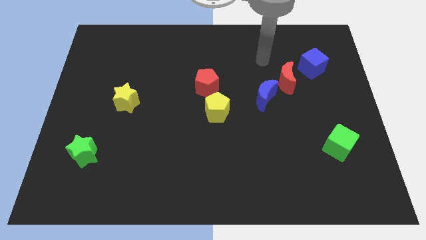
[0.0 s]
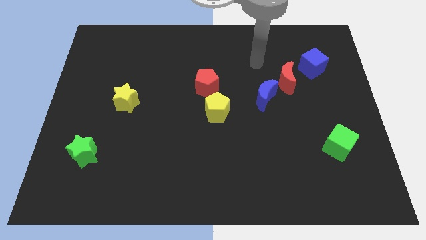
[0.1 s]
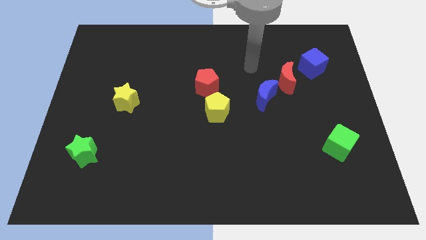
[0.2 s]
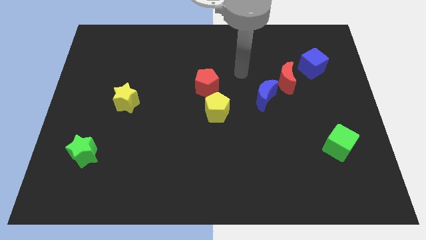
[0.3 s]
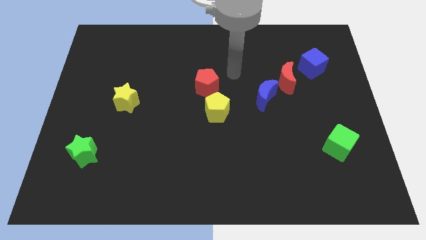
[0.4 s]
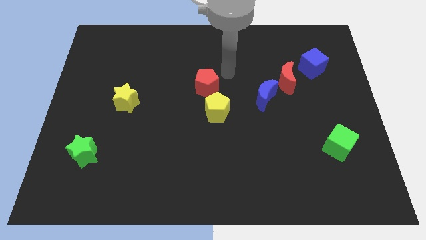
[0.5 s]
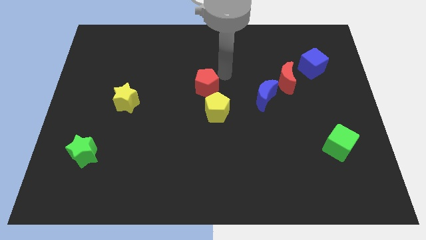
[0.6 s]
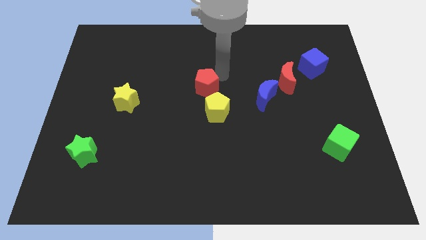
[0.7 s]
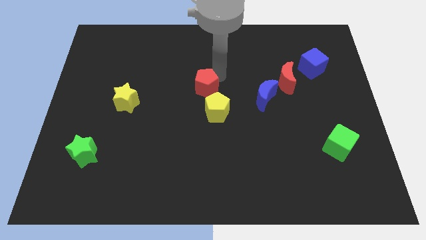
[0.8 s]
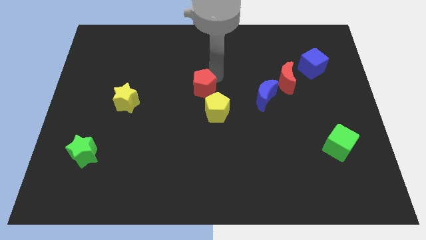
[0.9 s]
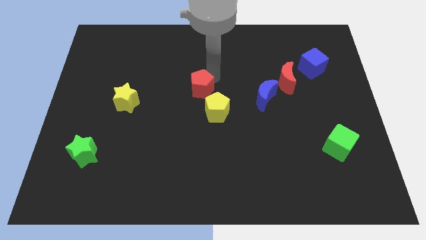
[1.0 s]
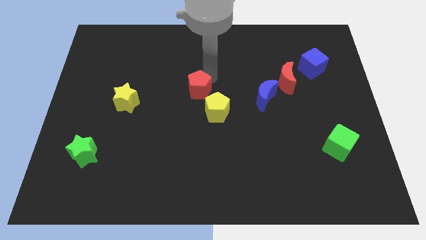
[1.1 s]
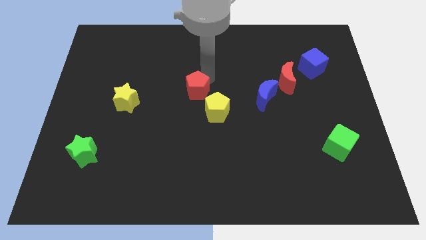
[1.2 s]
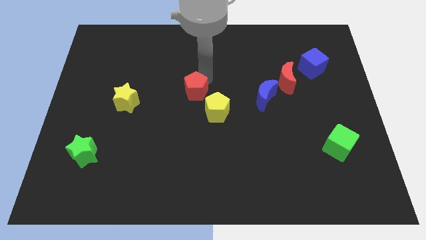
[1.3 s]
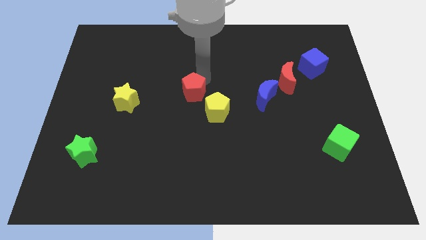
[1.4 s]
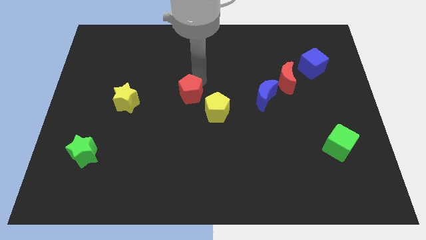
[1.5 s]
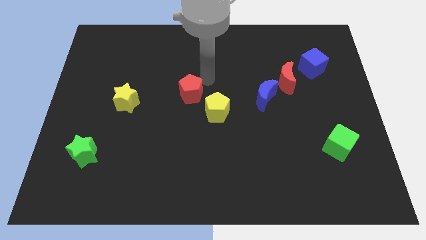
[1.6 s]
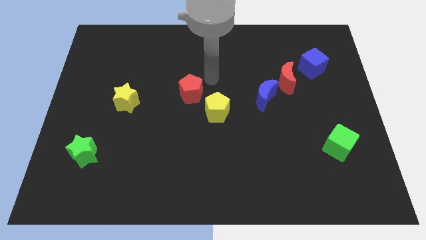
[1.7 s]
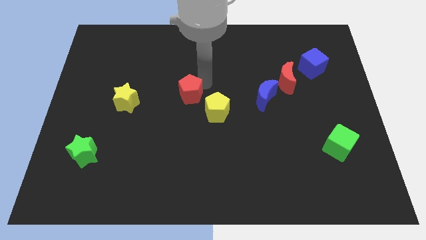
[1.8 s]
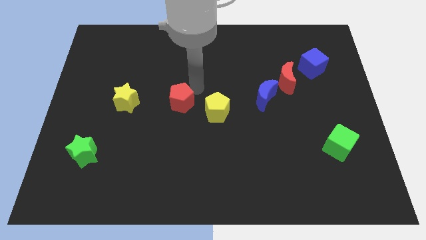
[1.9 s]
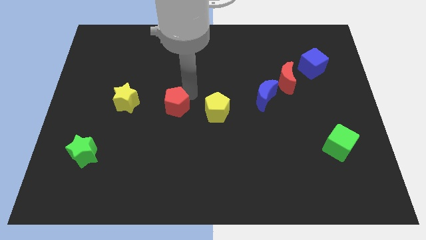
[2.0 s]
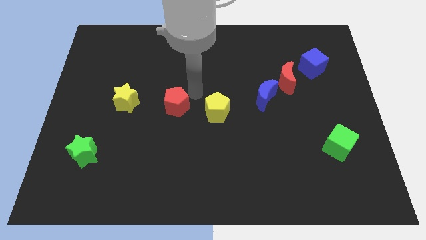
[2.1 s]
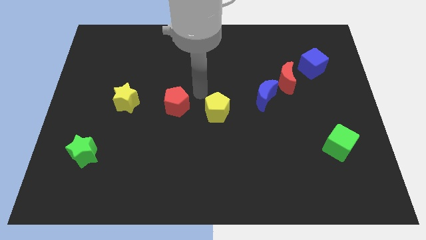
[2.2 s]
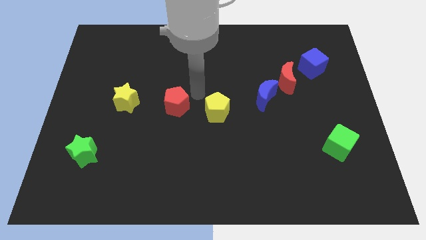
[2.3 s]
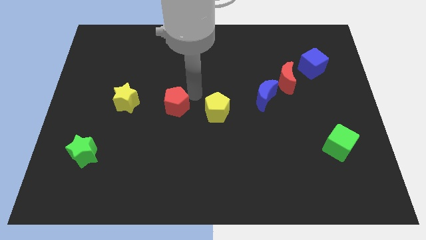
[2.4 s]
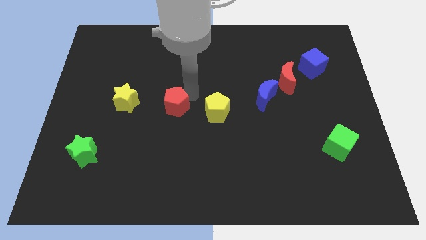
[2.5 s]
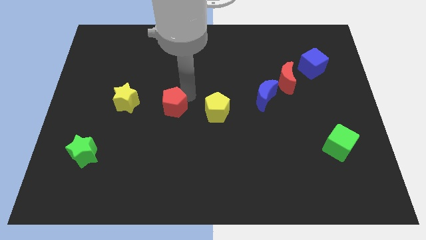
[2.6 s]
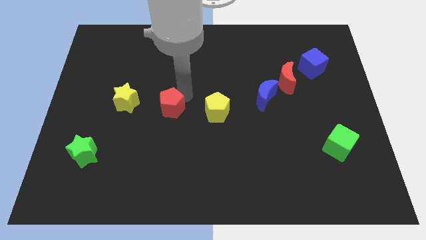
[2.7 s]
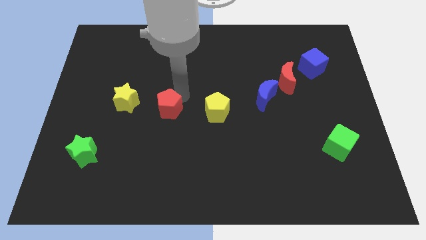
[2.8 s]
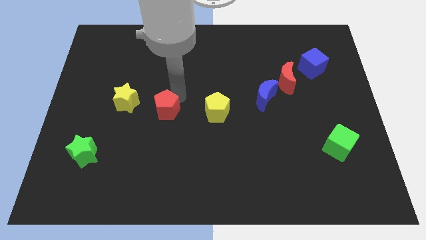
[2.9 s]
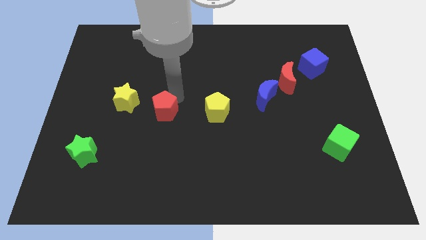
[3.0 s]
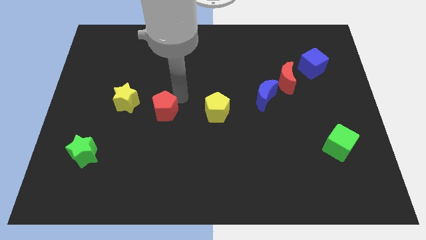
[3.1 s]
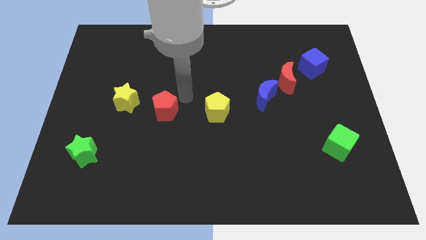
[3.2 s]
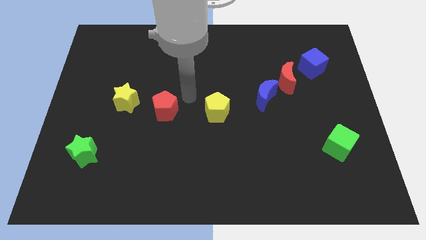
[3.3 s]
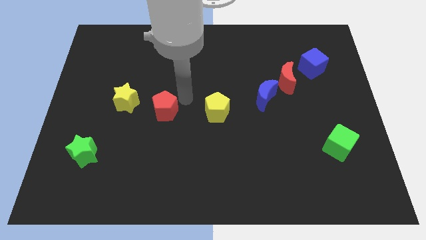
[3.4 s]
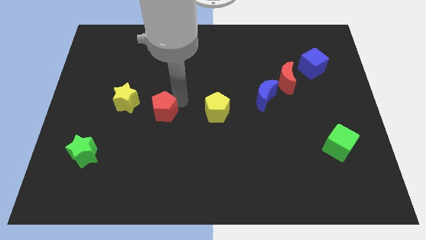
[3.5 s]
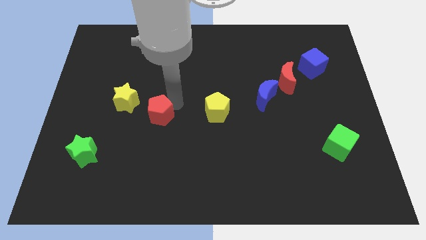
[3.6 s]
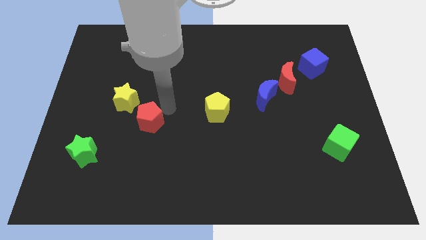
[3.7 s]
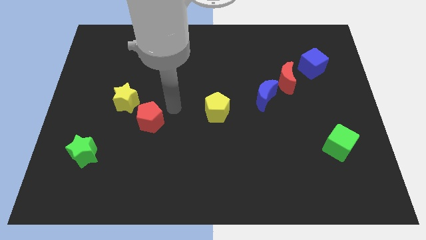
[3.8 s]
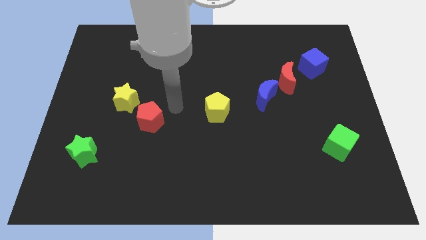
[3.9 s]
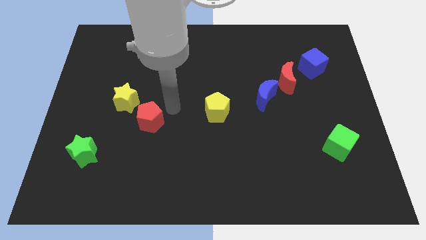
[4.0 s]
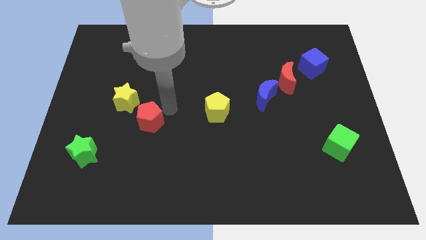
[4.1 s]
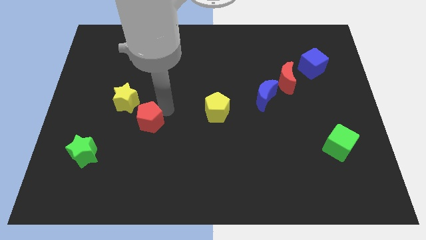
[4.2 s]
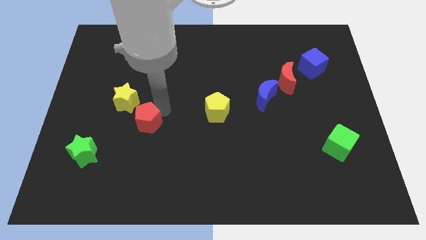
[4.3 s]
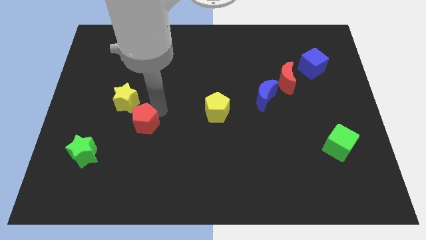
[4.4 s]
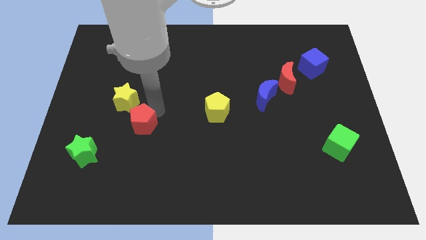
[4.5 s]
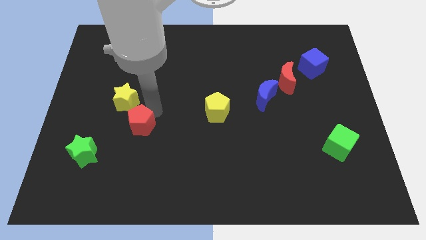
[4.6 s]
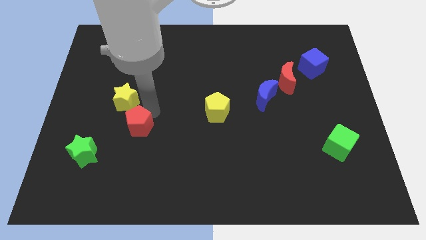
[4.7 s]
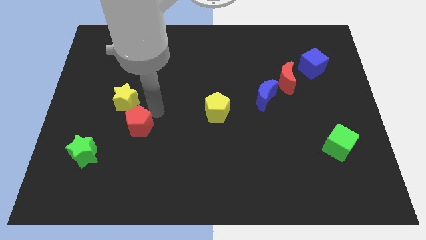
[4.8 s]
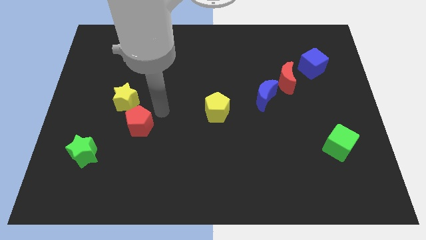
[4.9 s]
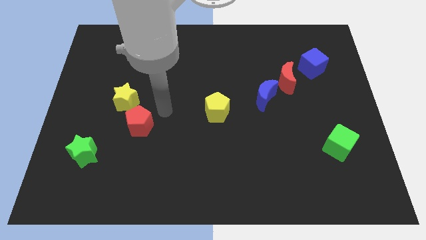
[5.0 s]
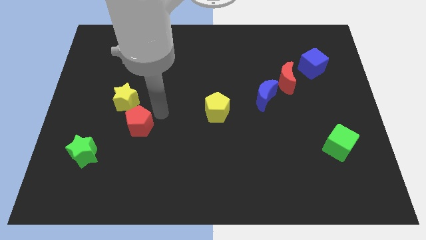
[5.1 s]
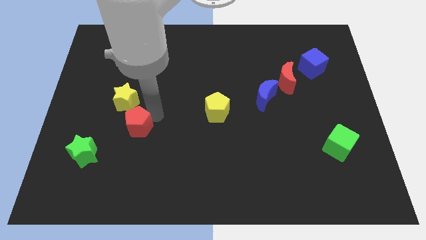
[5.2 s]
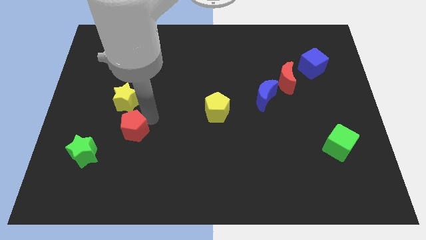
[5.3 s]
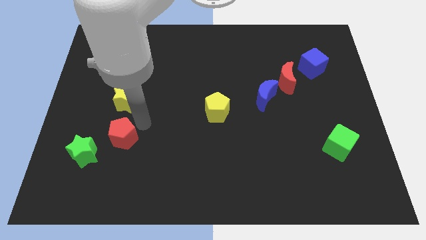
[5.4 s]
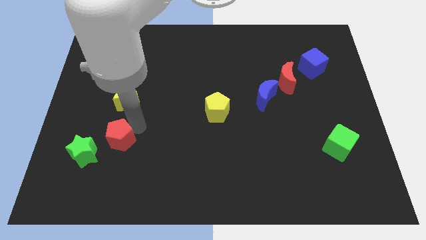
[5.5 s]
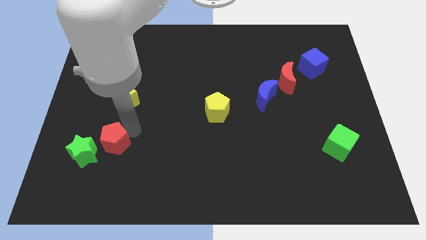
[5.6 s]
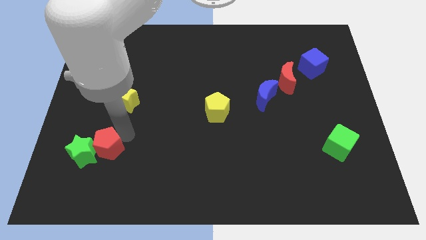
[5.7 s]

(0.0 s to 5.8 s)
move the red pentagon to the green star

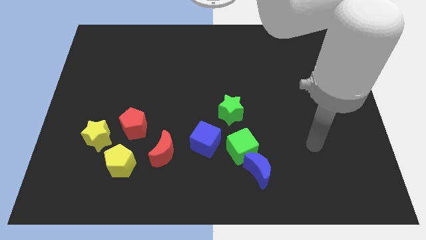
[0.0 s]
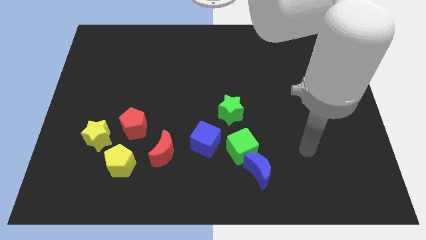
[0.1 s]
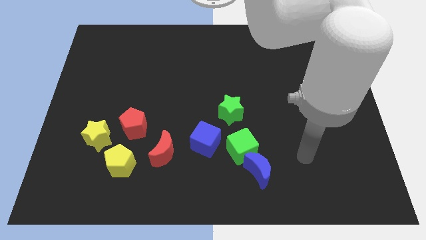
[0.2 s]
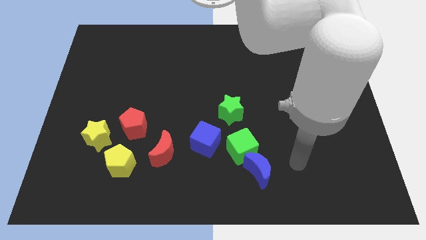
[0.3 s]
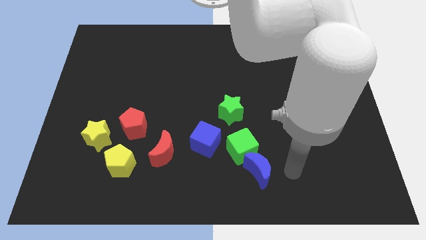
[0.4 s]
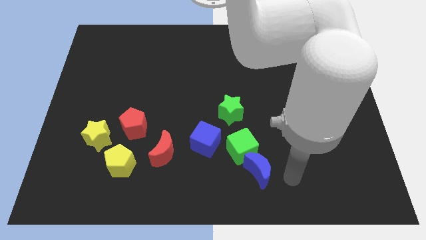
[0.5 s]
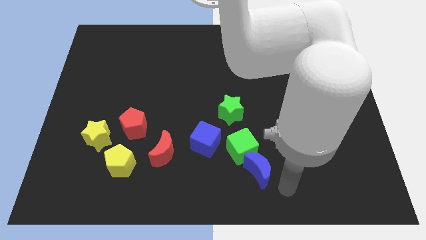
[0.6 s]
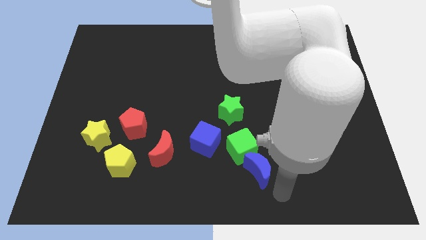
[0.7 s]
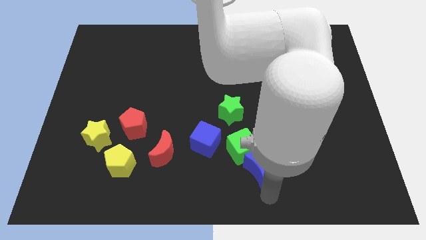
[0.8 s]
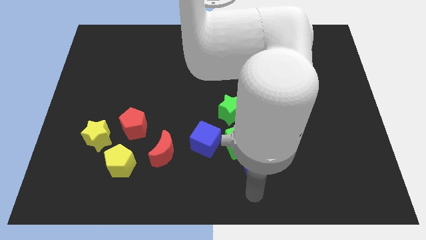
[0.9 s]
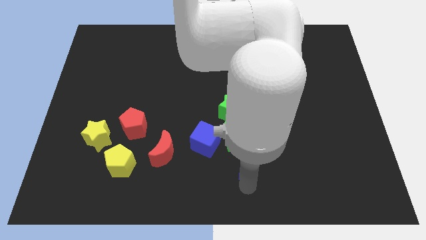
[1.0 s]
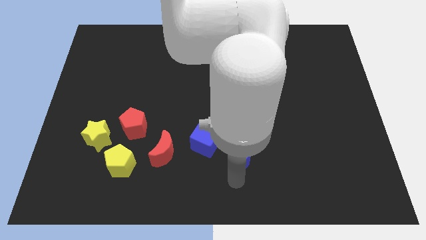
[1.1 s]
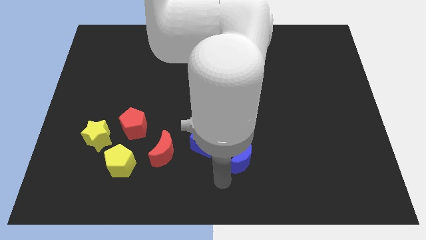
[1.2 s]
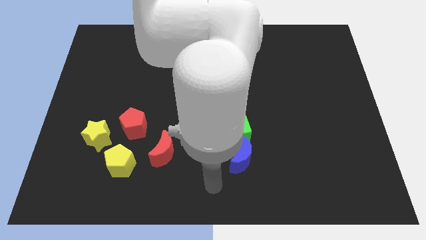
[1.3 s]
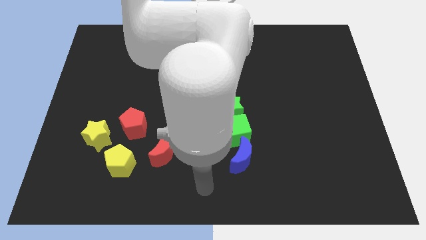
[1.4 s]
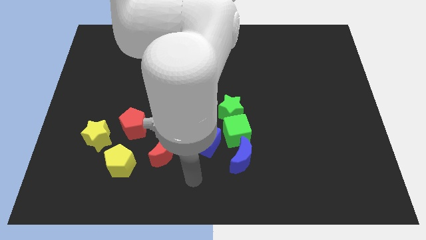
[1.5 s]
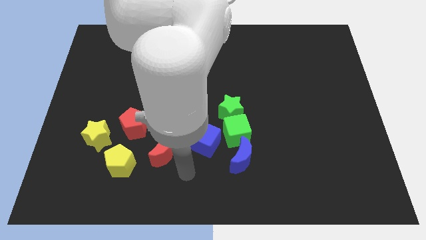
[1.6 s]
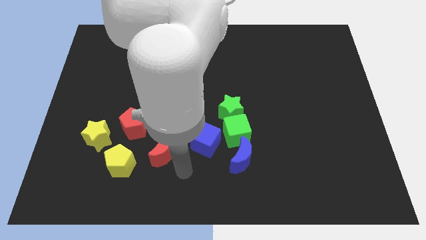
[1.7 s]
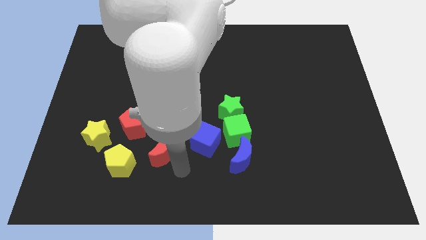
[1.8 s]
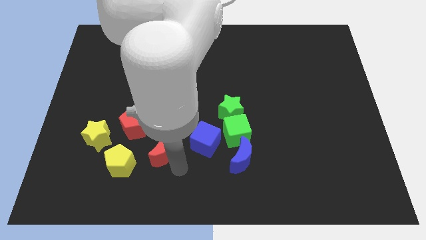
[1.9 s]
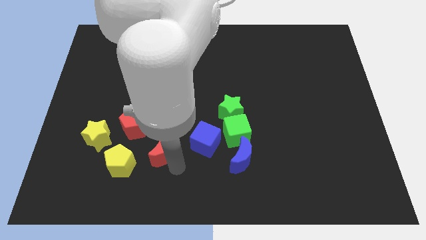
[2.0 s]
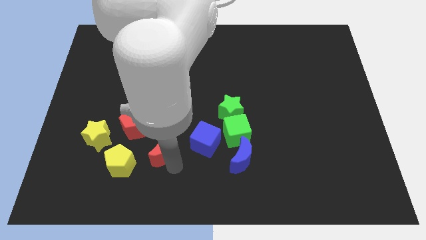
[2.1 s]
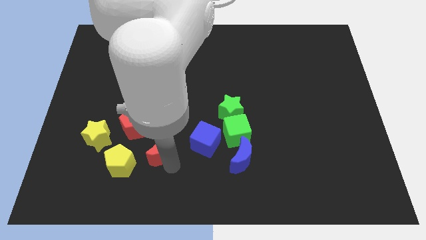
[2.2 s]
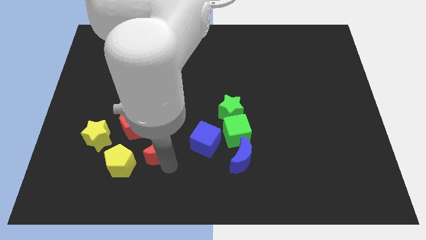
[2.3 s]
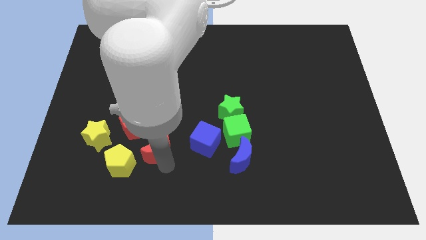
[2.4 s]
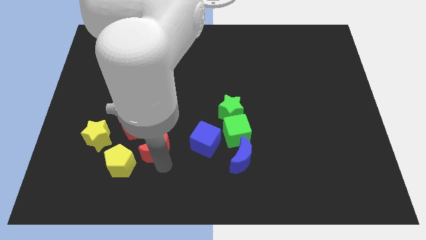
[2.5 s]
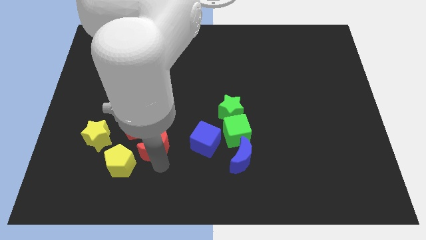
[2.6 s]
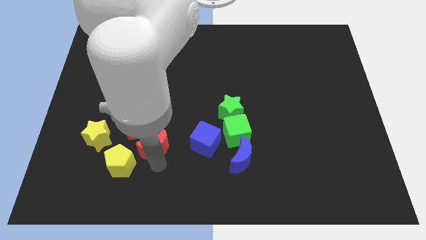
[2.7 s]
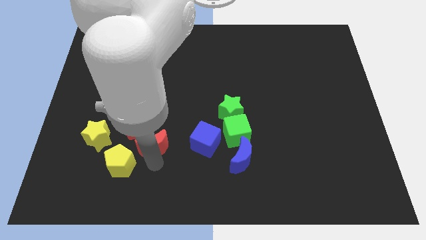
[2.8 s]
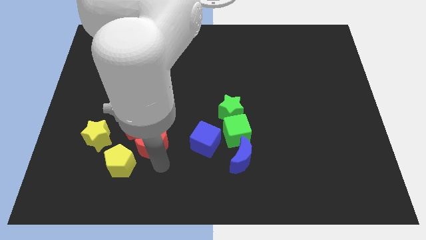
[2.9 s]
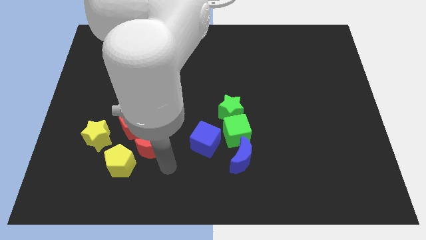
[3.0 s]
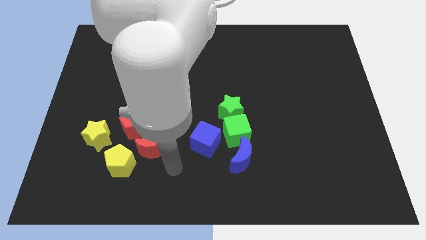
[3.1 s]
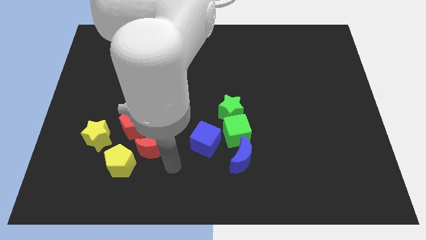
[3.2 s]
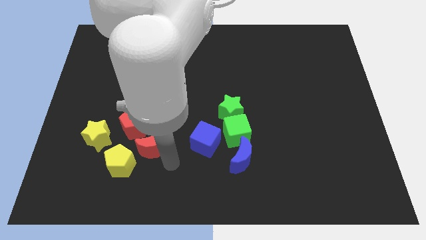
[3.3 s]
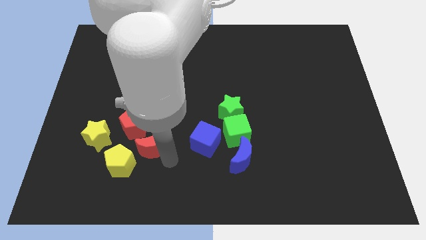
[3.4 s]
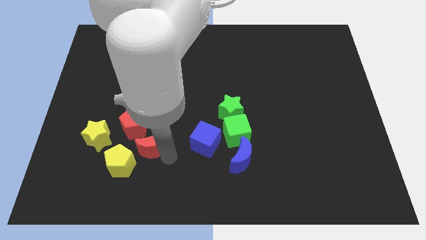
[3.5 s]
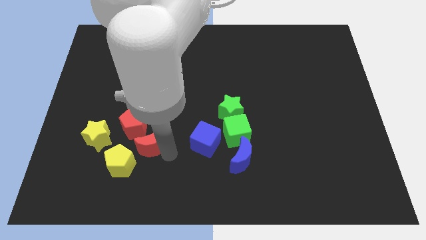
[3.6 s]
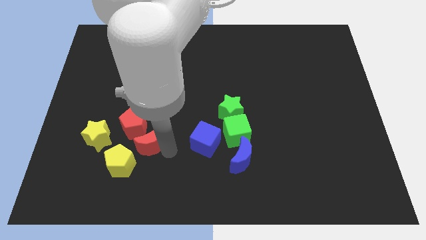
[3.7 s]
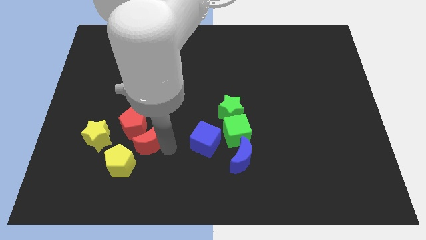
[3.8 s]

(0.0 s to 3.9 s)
slide the red moon to the red pentagon
